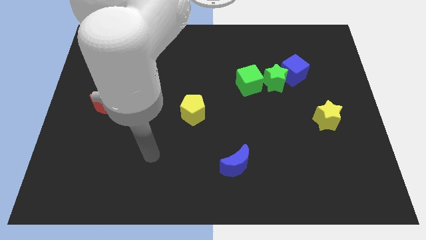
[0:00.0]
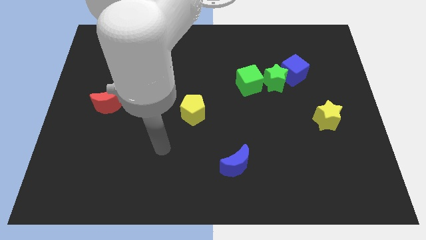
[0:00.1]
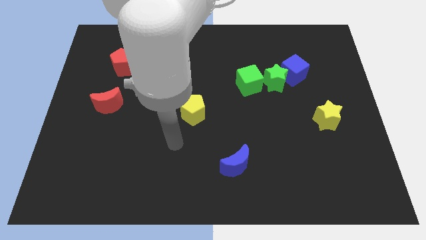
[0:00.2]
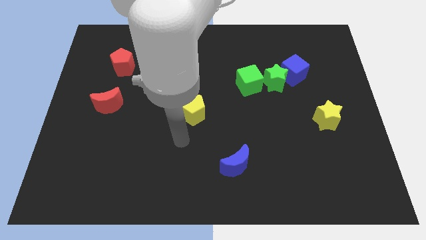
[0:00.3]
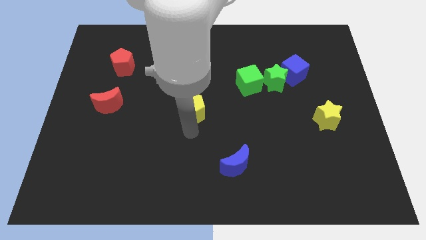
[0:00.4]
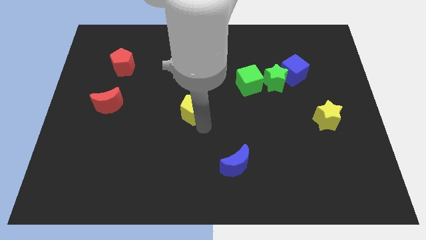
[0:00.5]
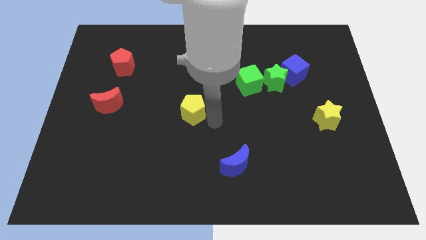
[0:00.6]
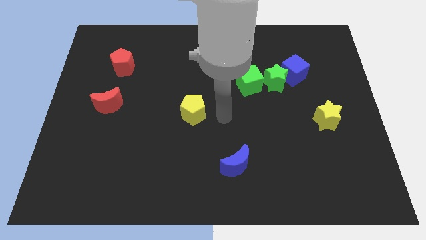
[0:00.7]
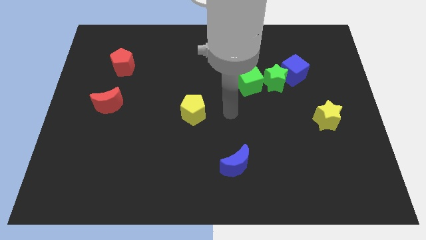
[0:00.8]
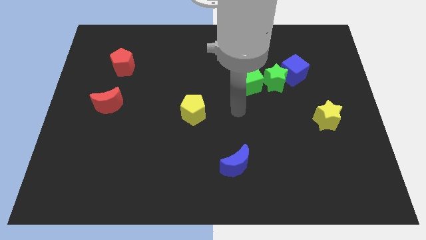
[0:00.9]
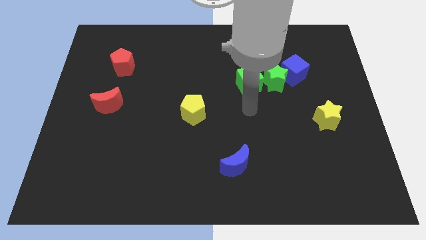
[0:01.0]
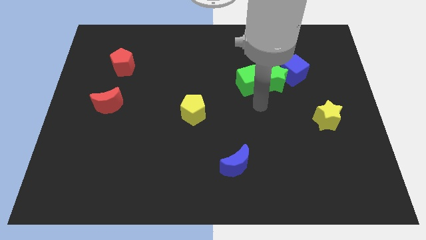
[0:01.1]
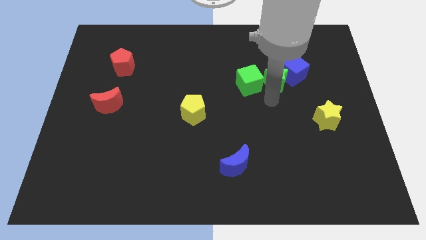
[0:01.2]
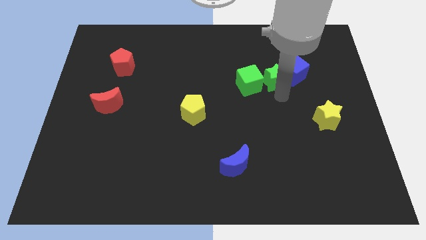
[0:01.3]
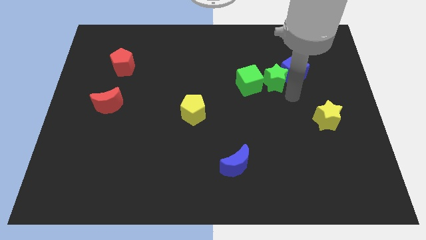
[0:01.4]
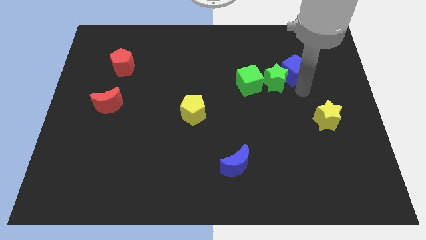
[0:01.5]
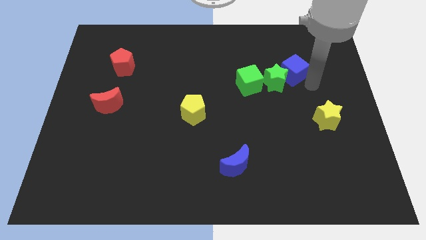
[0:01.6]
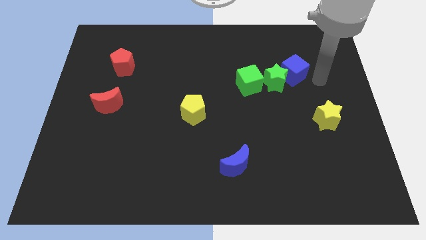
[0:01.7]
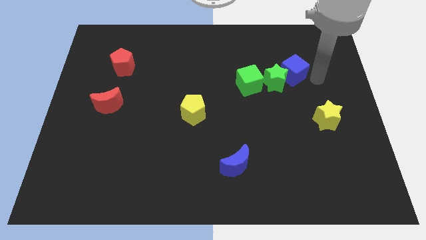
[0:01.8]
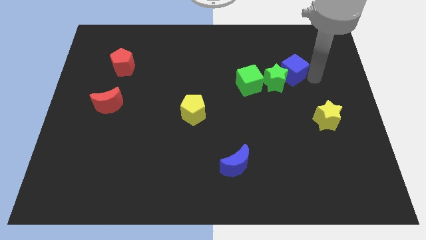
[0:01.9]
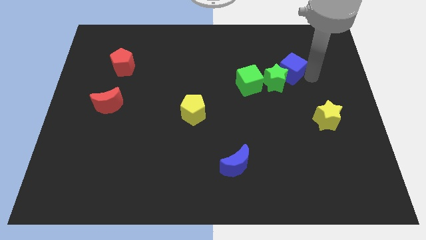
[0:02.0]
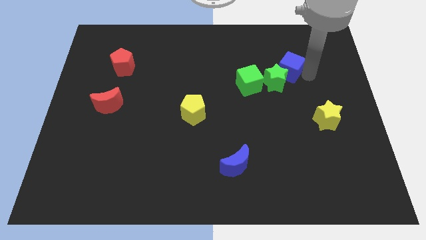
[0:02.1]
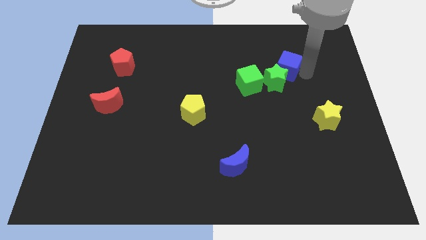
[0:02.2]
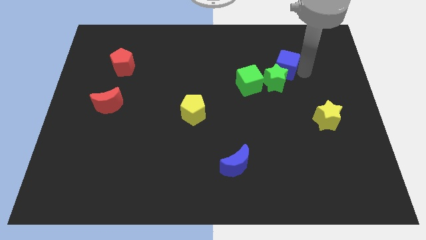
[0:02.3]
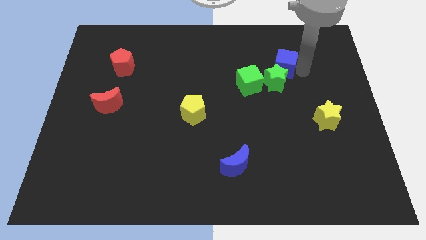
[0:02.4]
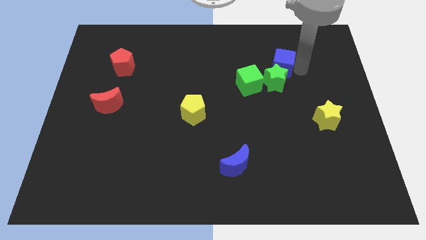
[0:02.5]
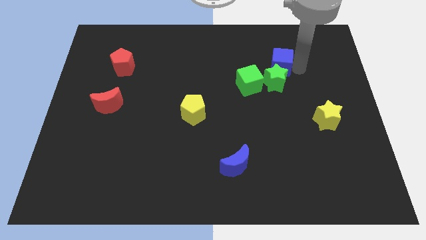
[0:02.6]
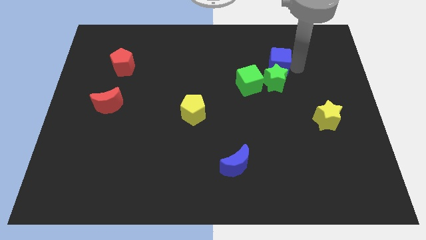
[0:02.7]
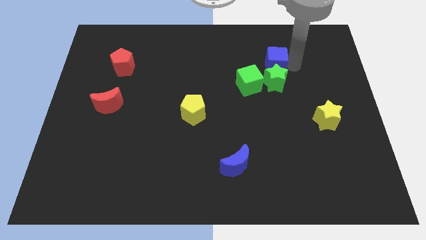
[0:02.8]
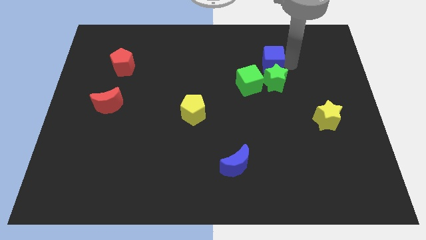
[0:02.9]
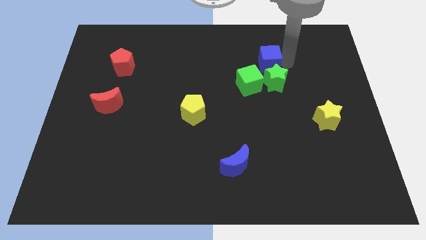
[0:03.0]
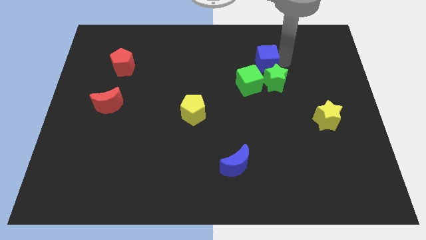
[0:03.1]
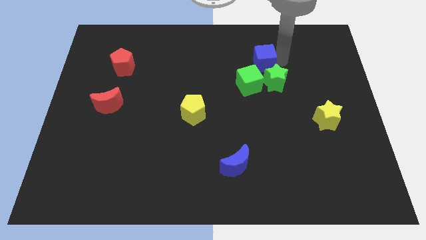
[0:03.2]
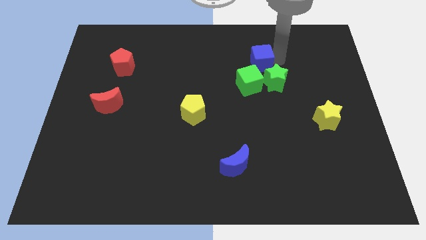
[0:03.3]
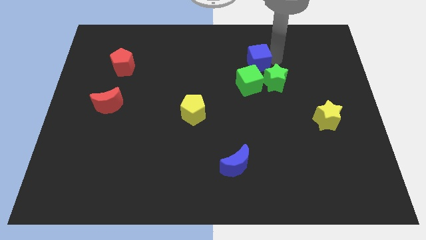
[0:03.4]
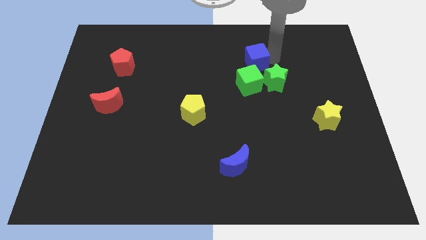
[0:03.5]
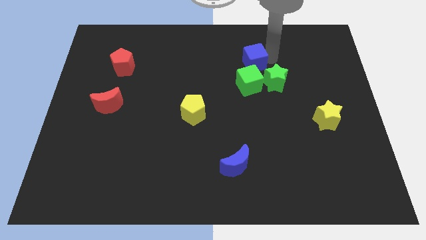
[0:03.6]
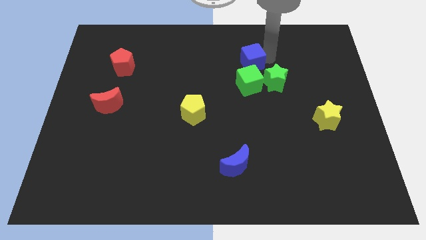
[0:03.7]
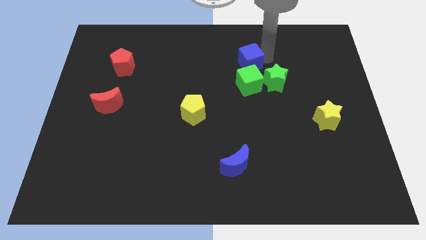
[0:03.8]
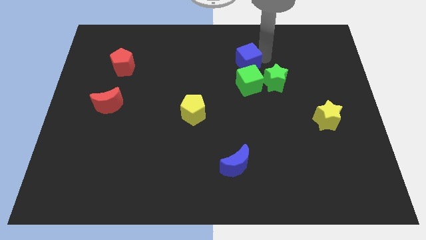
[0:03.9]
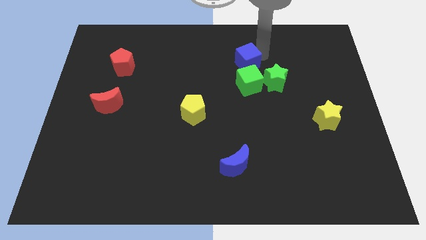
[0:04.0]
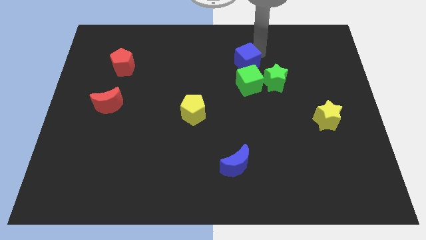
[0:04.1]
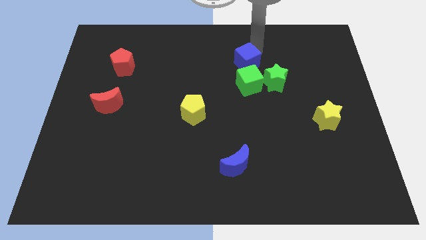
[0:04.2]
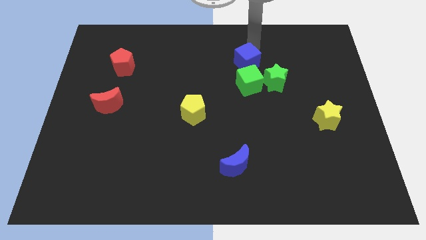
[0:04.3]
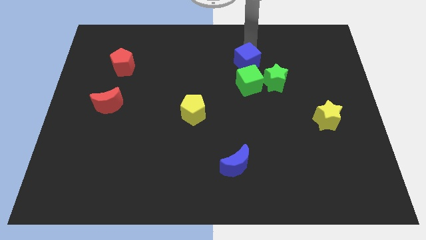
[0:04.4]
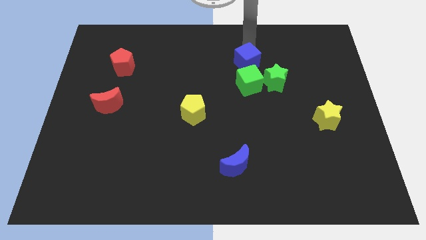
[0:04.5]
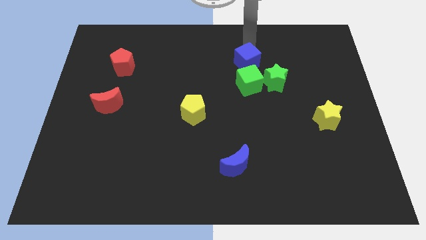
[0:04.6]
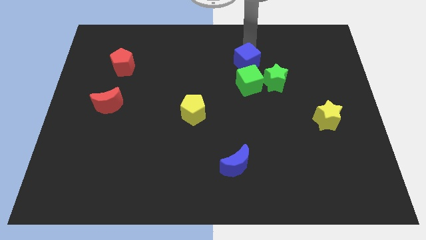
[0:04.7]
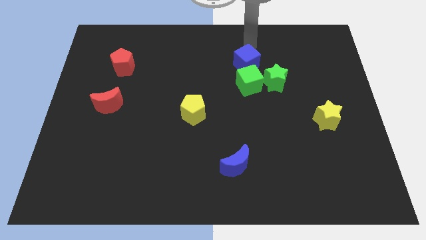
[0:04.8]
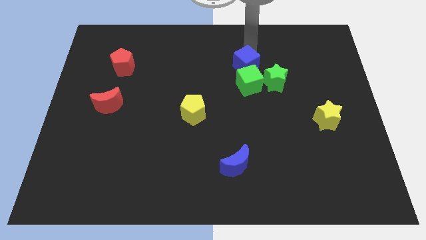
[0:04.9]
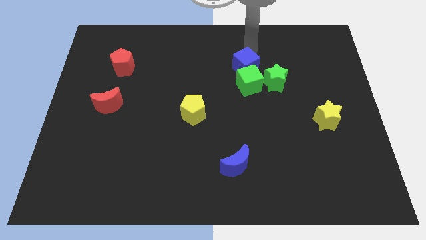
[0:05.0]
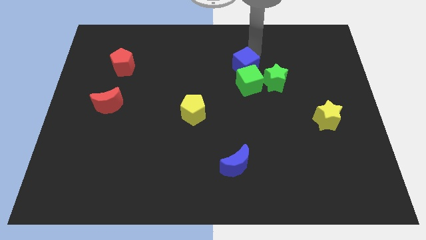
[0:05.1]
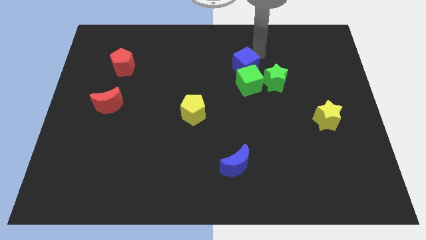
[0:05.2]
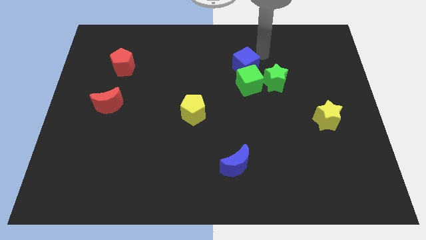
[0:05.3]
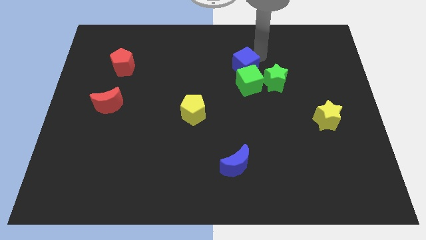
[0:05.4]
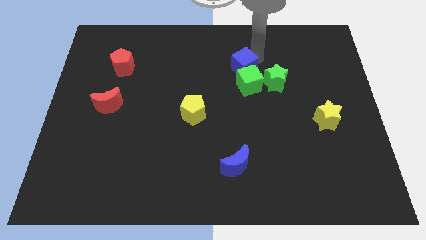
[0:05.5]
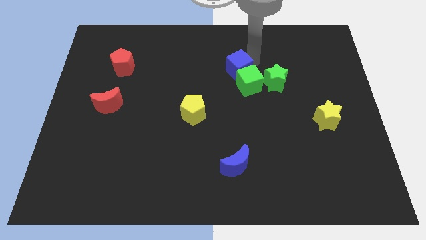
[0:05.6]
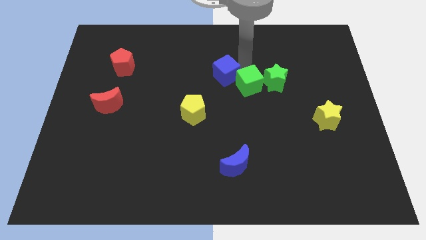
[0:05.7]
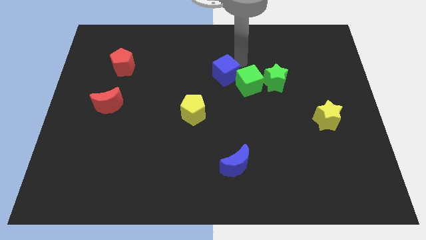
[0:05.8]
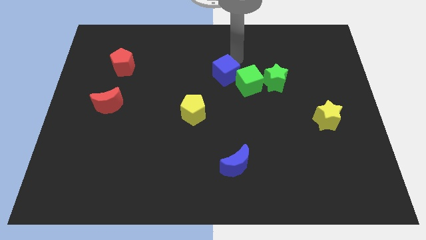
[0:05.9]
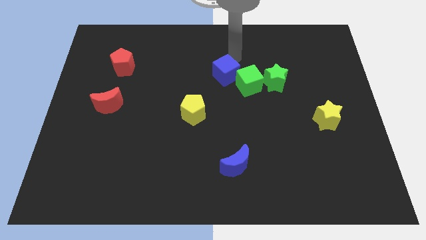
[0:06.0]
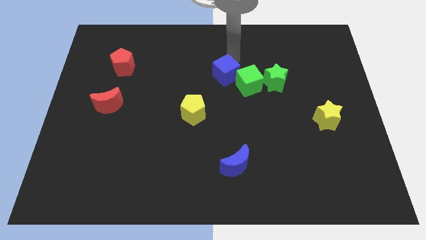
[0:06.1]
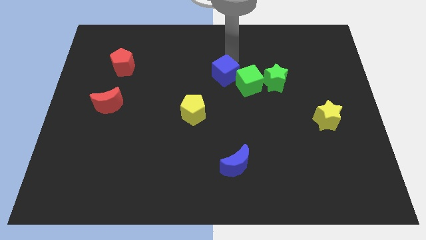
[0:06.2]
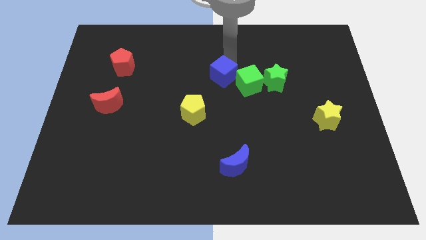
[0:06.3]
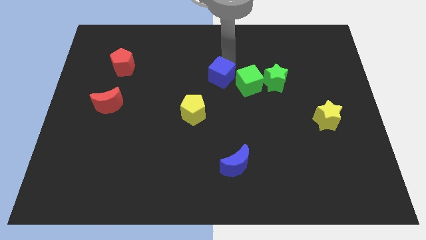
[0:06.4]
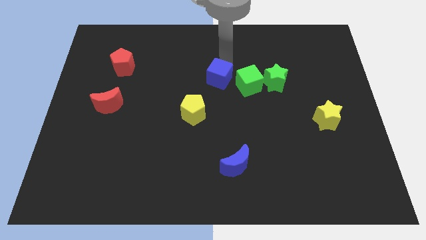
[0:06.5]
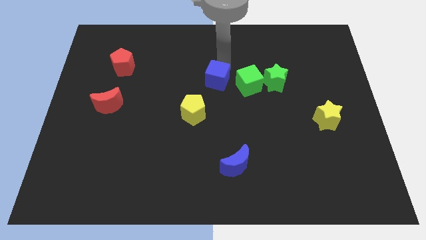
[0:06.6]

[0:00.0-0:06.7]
put the blue cube to the top right side of the yellow pentagon

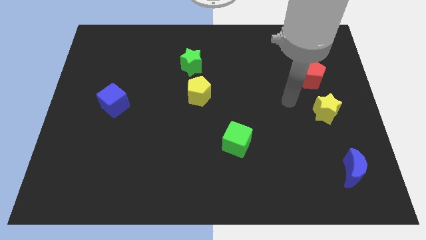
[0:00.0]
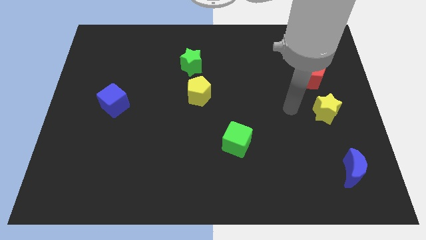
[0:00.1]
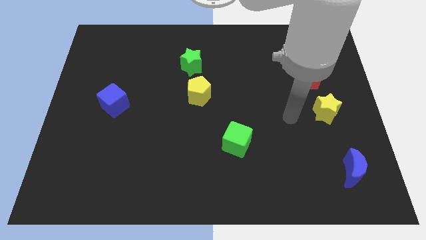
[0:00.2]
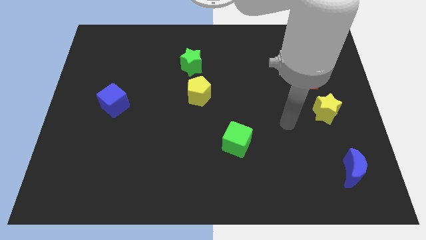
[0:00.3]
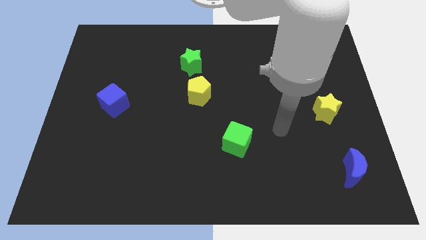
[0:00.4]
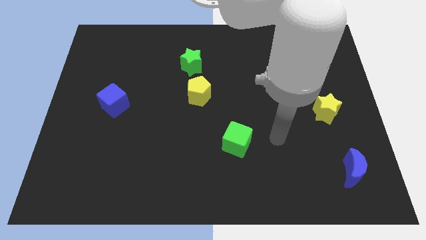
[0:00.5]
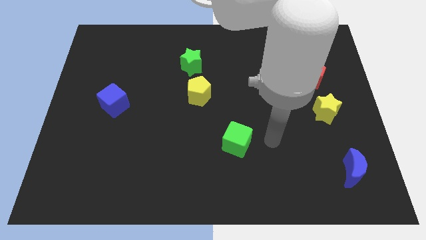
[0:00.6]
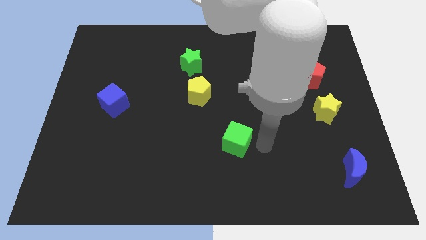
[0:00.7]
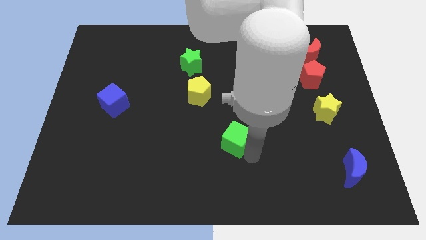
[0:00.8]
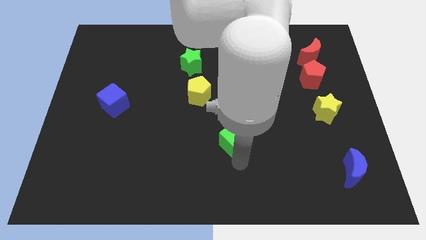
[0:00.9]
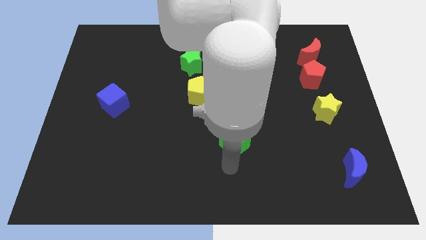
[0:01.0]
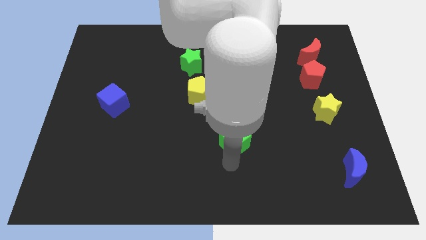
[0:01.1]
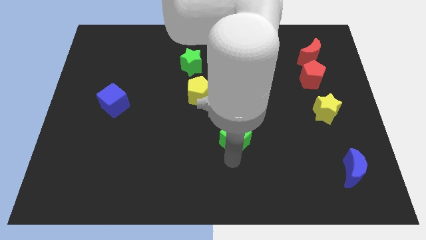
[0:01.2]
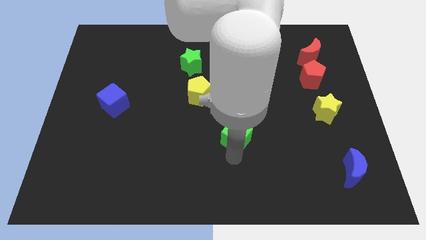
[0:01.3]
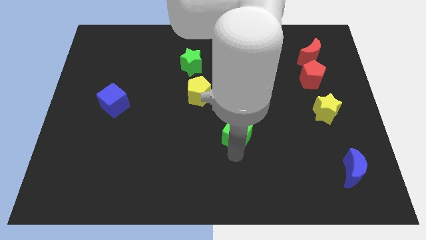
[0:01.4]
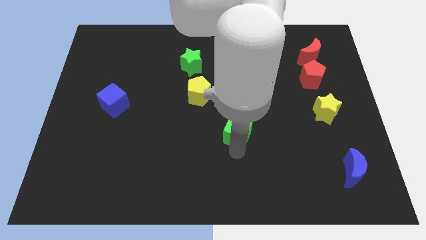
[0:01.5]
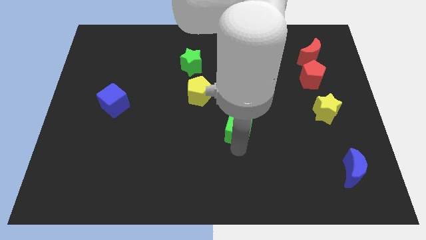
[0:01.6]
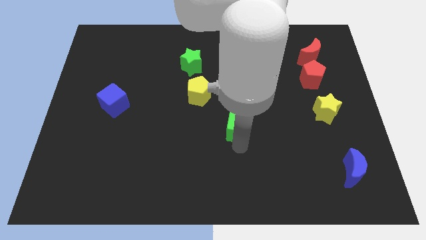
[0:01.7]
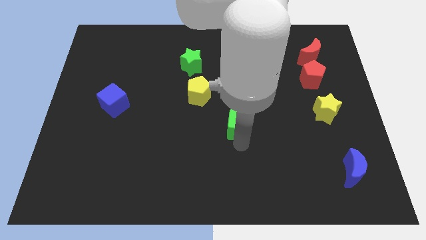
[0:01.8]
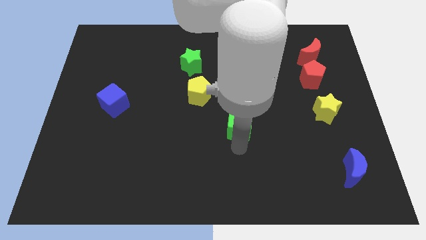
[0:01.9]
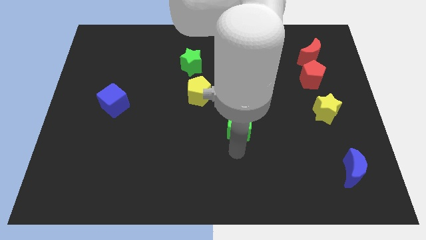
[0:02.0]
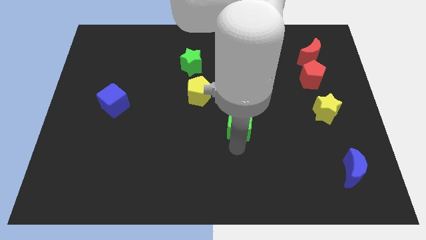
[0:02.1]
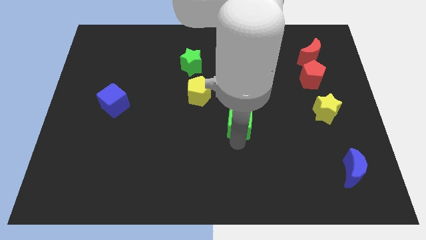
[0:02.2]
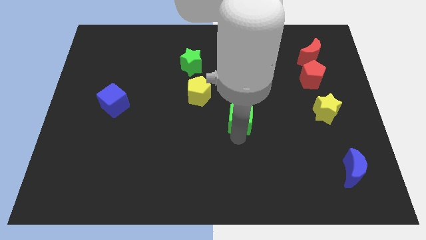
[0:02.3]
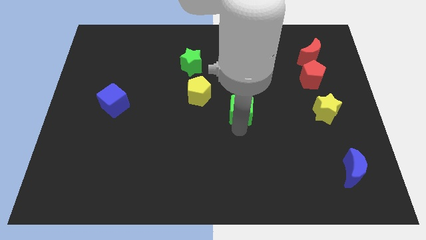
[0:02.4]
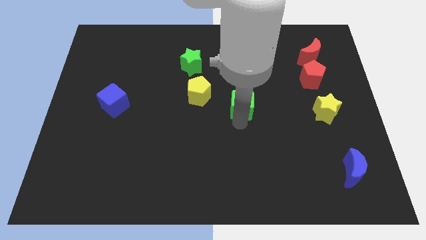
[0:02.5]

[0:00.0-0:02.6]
slide the green cube to the right of the yellow pentagon
